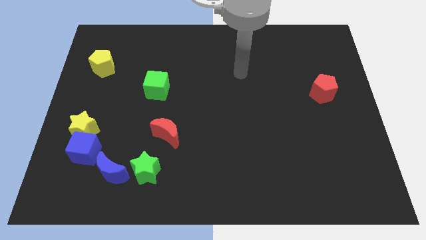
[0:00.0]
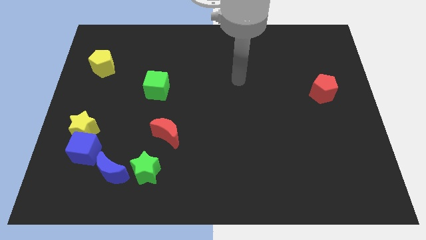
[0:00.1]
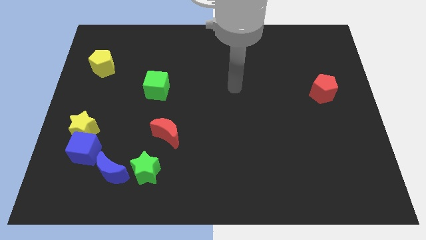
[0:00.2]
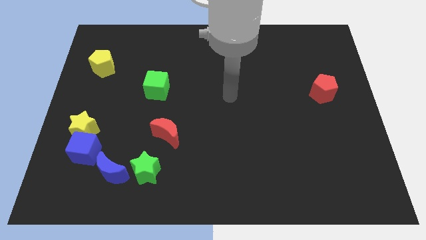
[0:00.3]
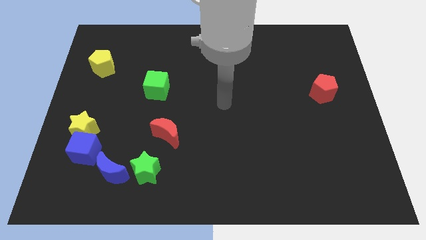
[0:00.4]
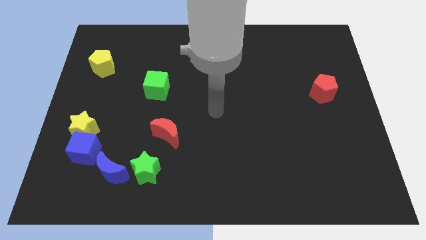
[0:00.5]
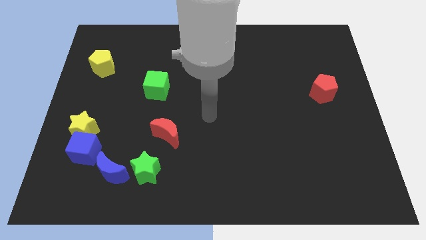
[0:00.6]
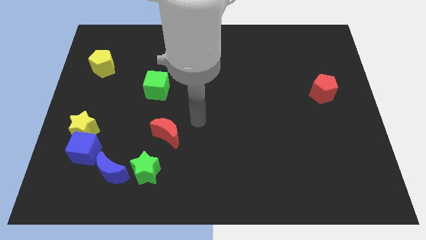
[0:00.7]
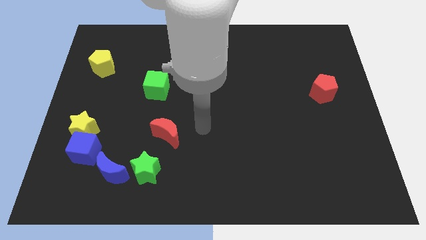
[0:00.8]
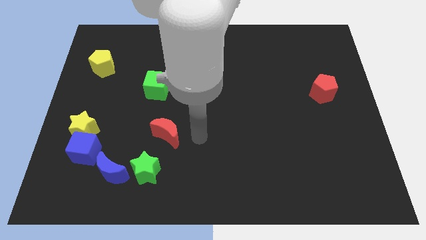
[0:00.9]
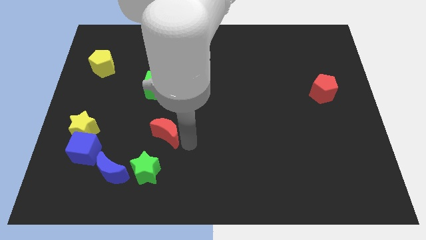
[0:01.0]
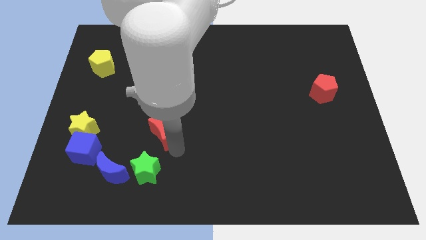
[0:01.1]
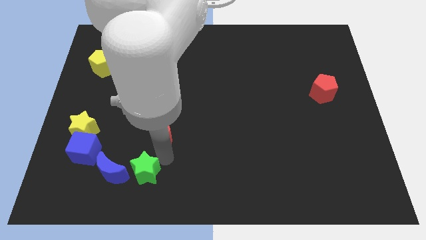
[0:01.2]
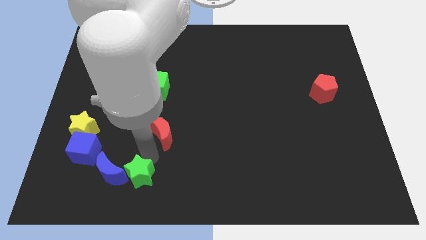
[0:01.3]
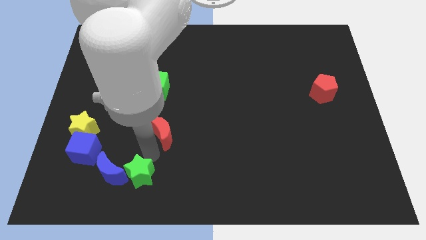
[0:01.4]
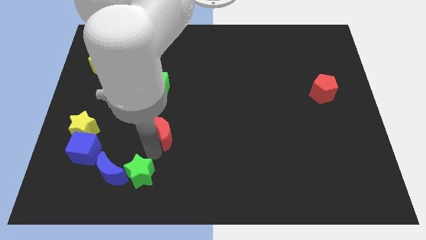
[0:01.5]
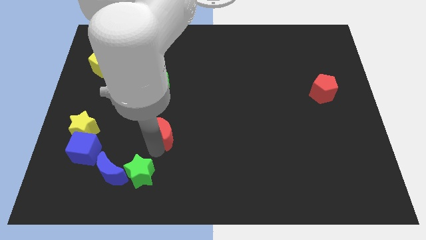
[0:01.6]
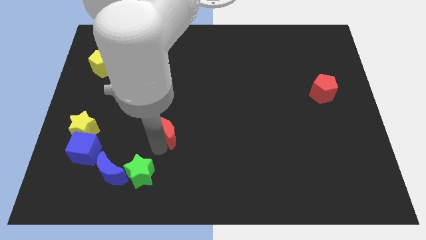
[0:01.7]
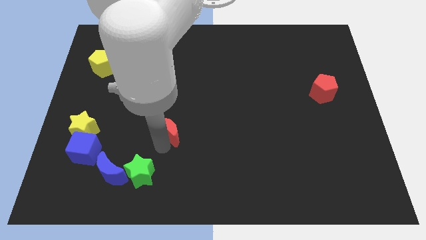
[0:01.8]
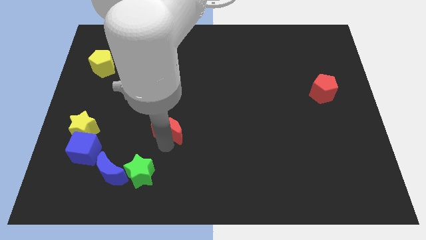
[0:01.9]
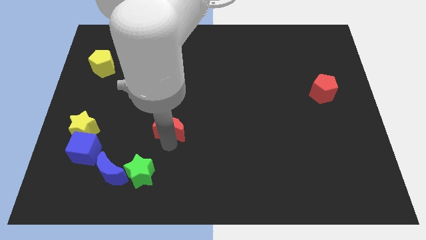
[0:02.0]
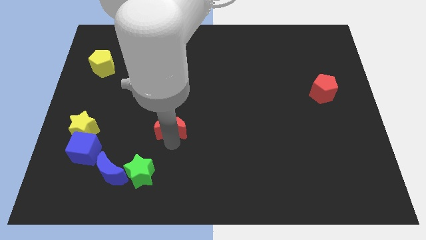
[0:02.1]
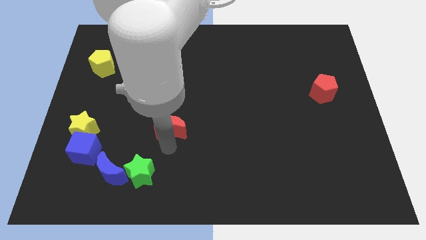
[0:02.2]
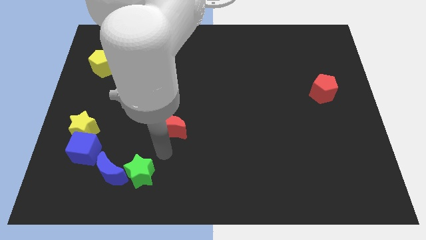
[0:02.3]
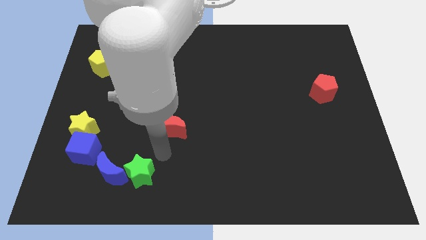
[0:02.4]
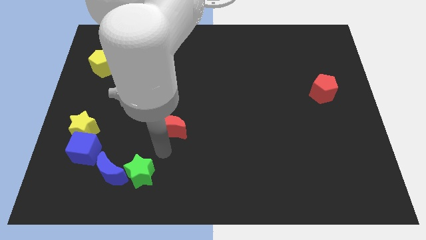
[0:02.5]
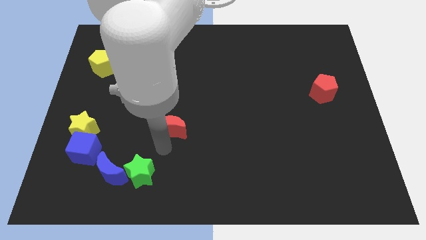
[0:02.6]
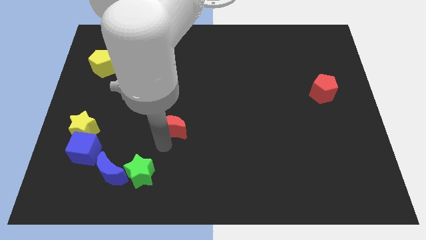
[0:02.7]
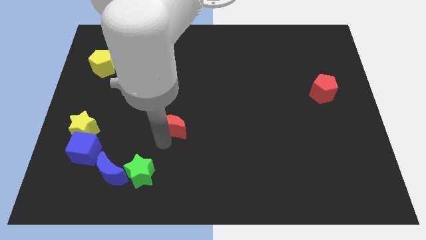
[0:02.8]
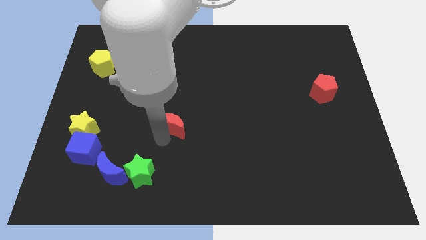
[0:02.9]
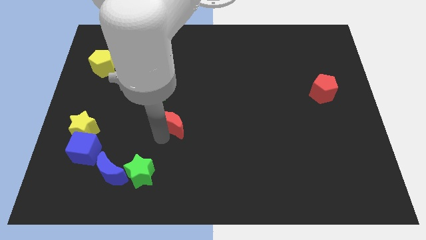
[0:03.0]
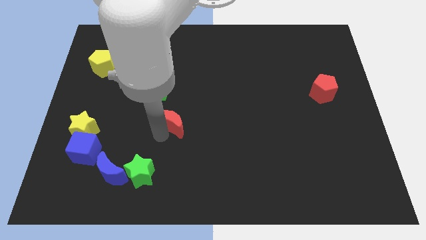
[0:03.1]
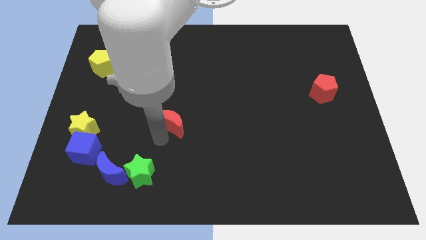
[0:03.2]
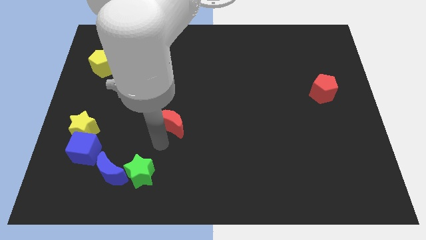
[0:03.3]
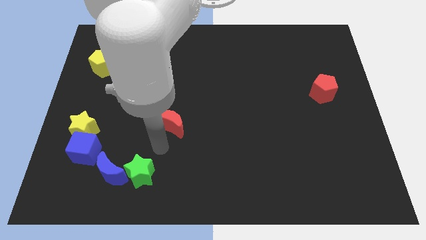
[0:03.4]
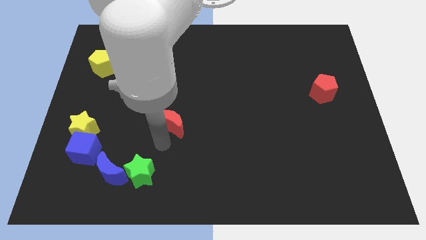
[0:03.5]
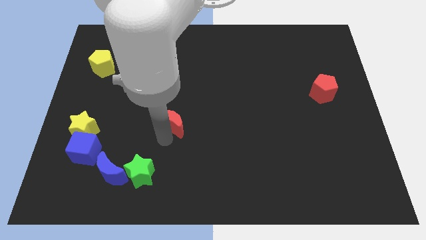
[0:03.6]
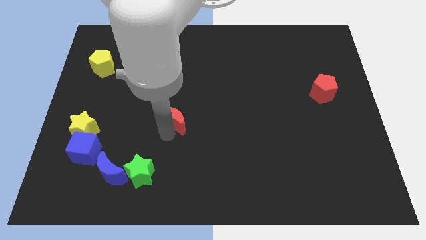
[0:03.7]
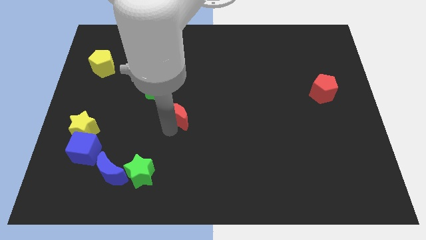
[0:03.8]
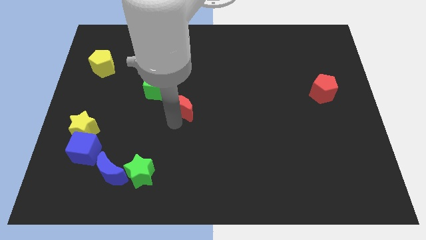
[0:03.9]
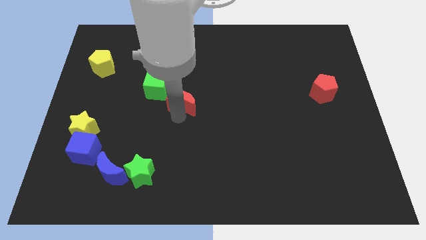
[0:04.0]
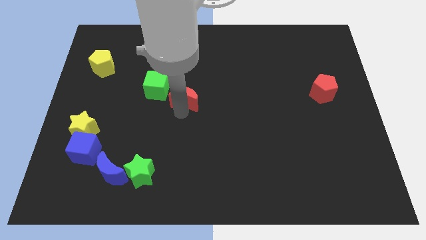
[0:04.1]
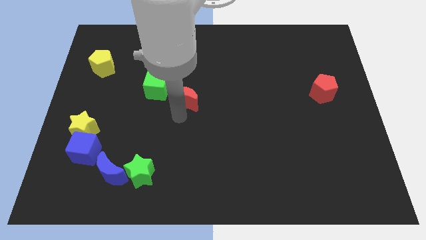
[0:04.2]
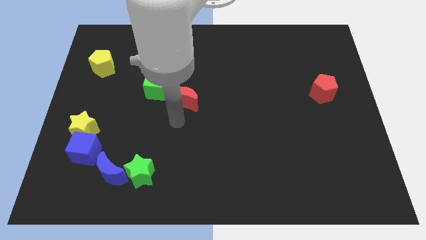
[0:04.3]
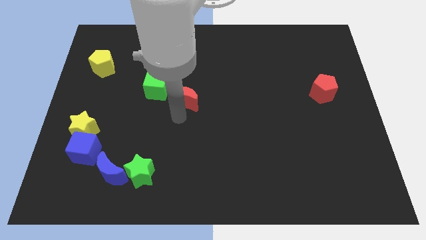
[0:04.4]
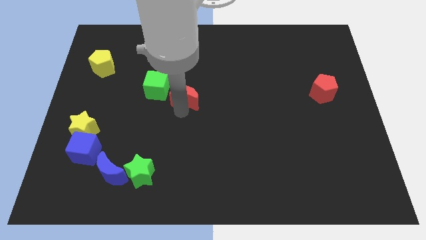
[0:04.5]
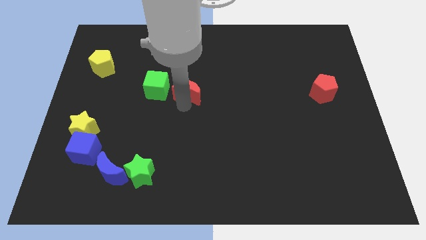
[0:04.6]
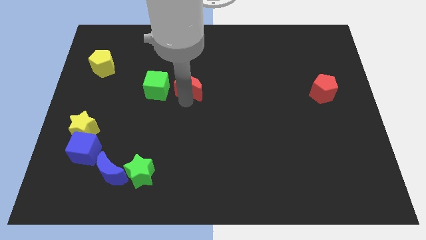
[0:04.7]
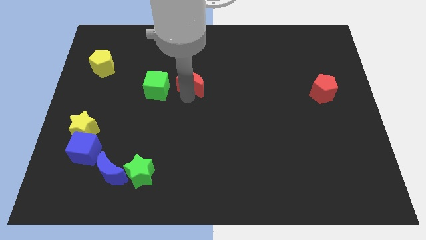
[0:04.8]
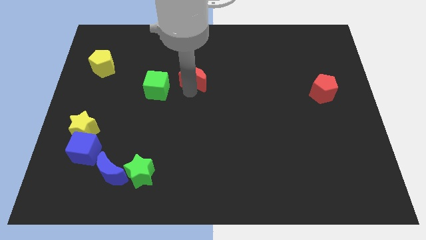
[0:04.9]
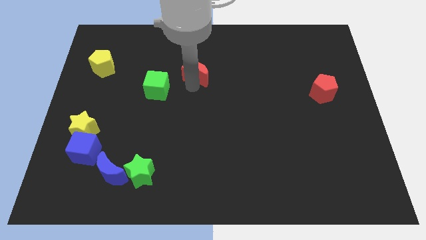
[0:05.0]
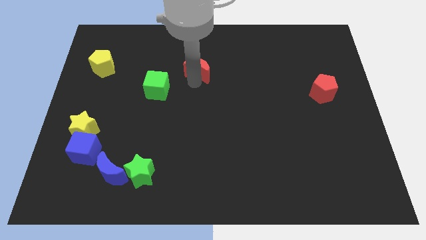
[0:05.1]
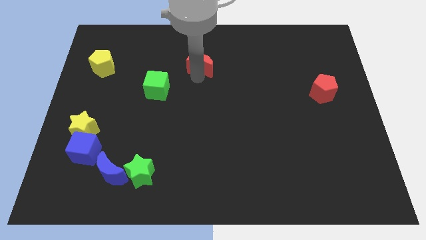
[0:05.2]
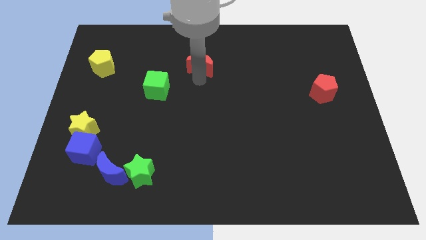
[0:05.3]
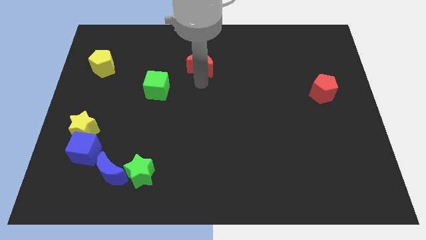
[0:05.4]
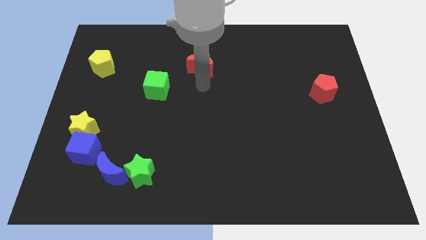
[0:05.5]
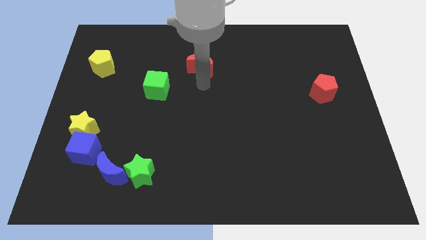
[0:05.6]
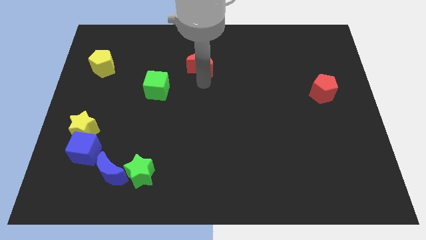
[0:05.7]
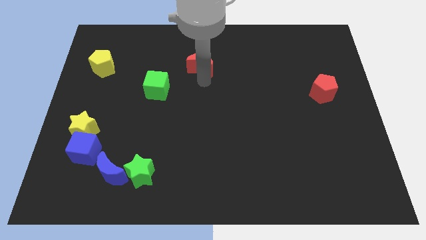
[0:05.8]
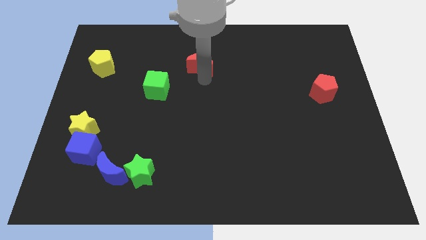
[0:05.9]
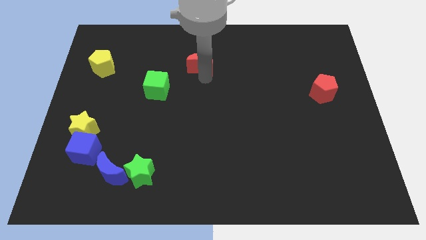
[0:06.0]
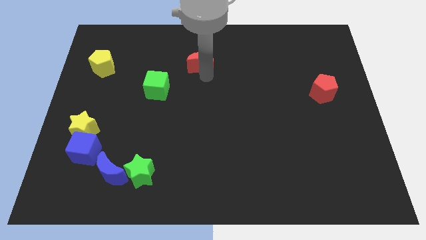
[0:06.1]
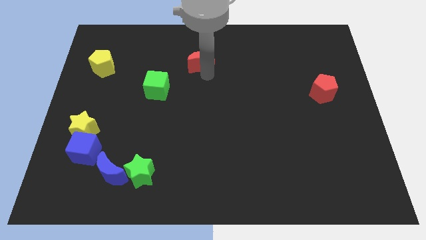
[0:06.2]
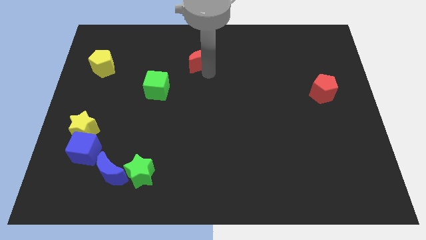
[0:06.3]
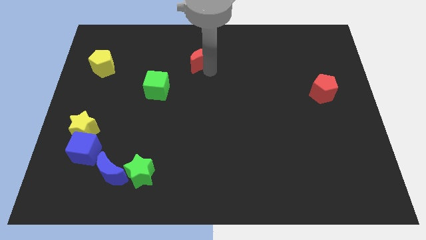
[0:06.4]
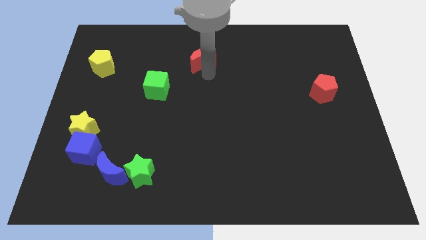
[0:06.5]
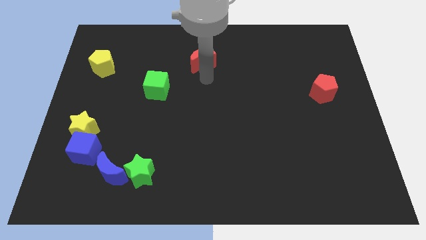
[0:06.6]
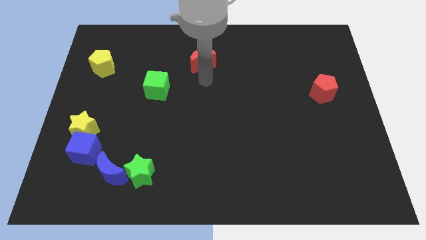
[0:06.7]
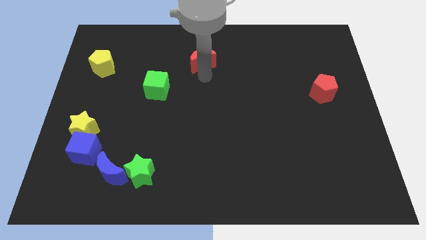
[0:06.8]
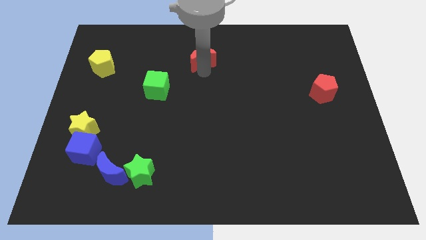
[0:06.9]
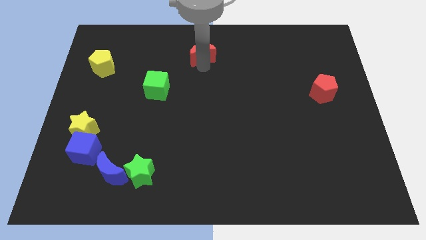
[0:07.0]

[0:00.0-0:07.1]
move the red moon to the top side

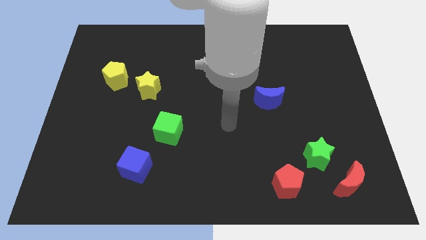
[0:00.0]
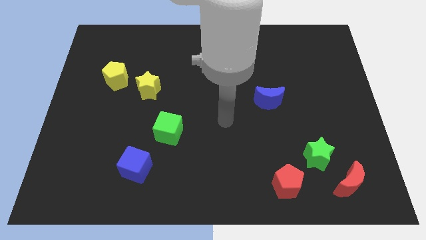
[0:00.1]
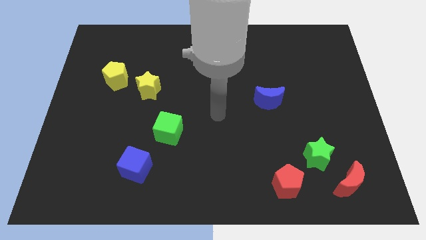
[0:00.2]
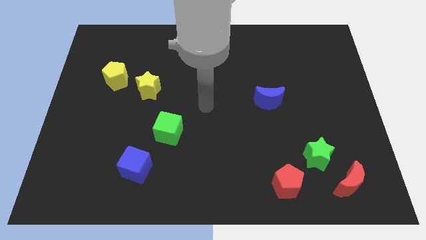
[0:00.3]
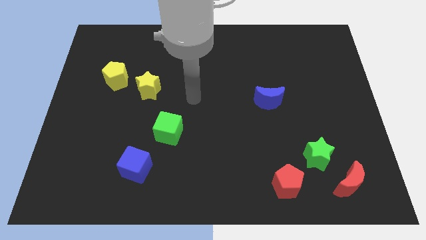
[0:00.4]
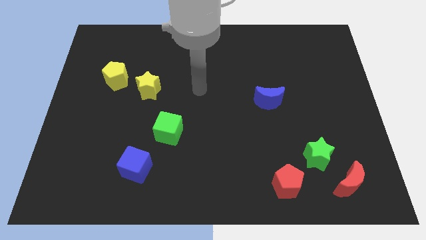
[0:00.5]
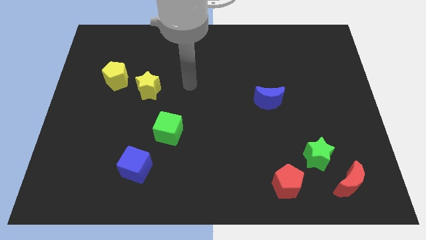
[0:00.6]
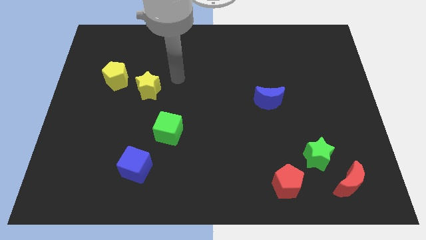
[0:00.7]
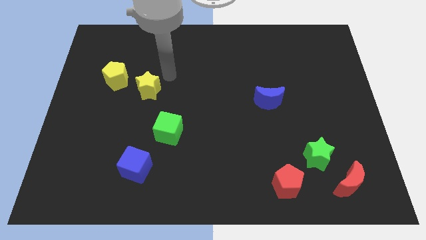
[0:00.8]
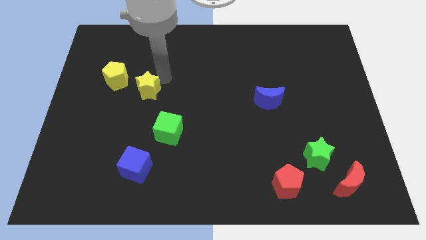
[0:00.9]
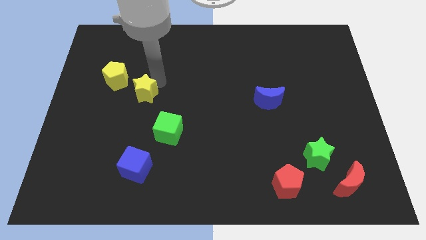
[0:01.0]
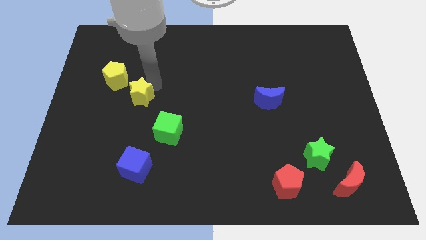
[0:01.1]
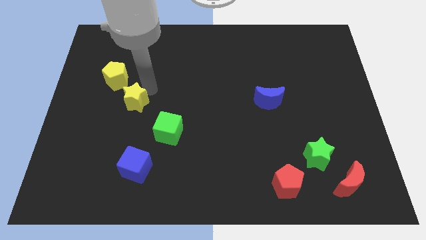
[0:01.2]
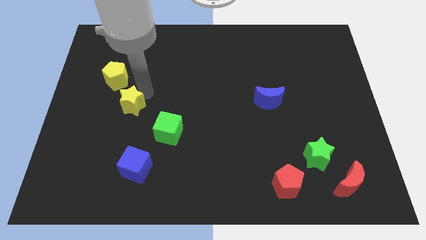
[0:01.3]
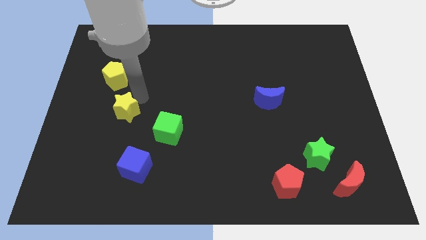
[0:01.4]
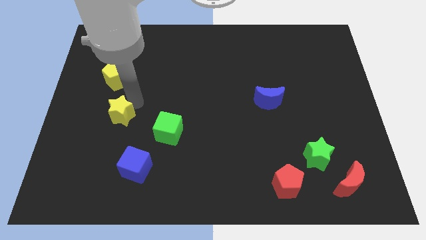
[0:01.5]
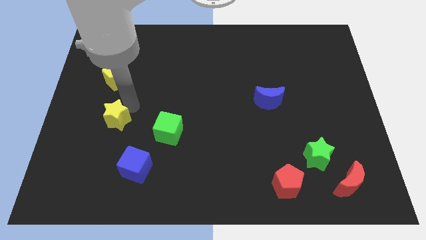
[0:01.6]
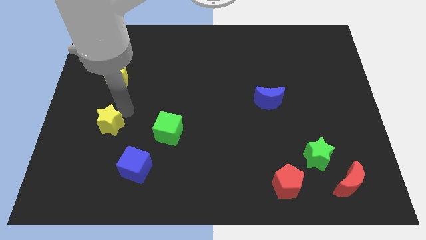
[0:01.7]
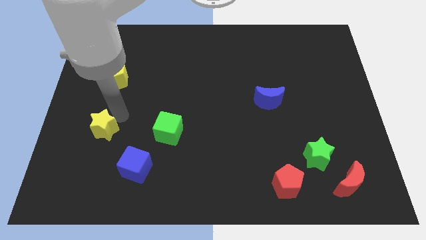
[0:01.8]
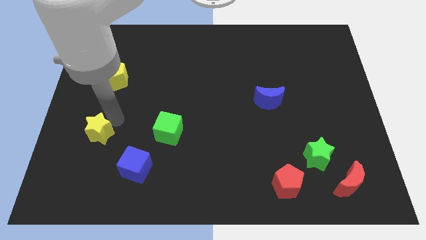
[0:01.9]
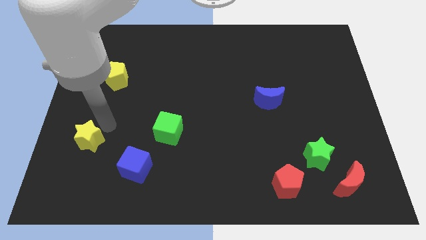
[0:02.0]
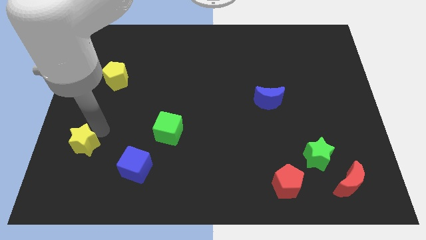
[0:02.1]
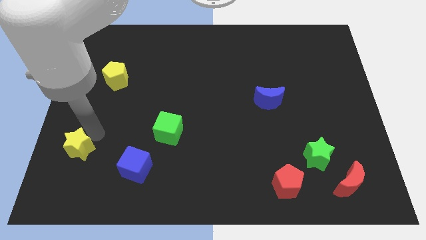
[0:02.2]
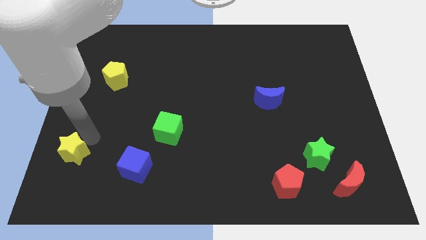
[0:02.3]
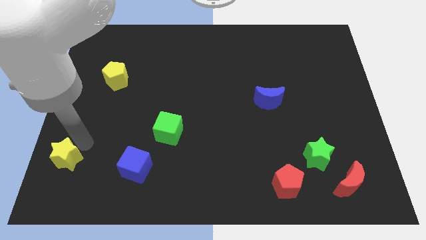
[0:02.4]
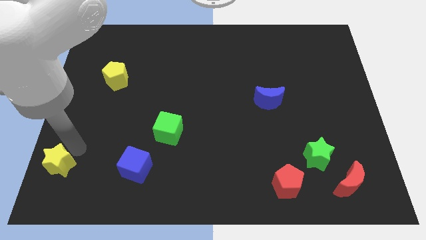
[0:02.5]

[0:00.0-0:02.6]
slide the yellow star to the bottom left of the board
